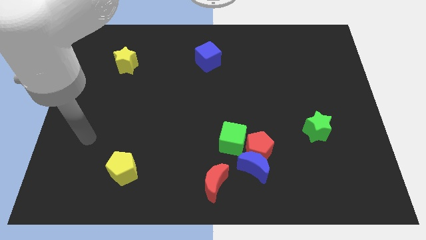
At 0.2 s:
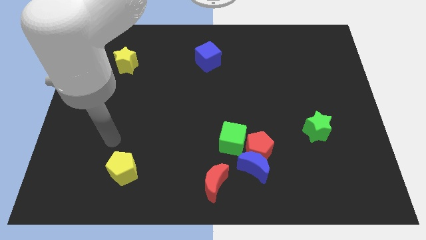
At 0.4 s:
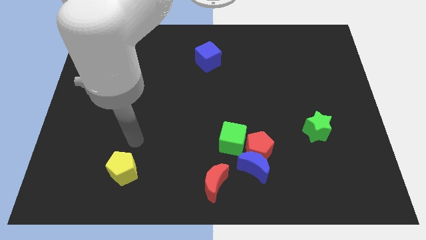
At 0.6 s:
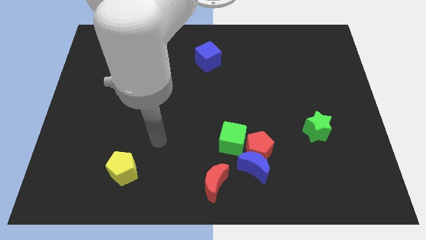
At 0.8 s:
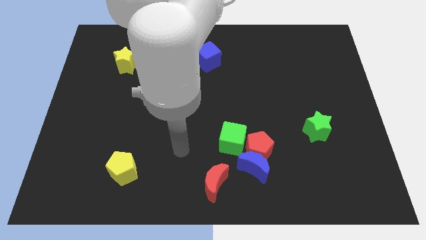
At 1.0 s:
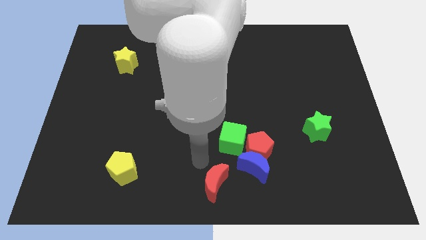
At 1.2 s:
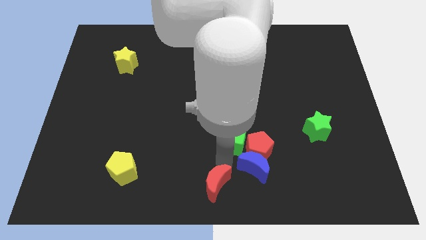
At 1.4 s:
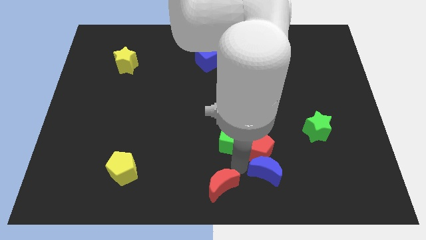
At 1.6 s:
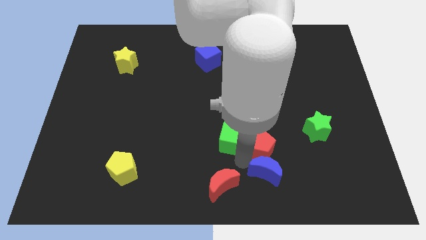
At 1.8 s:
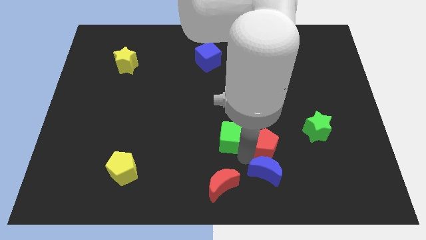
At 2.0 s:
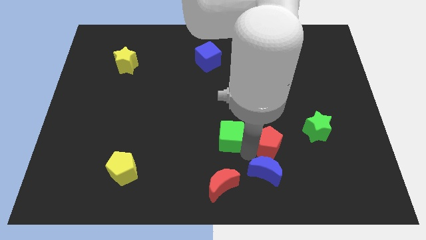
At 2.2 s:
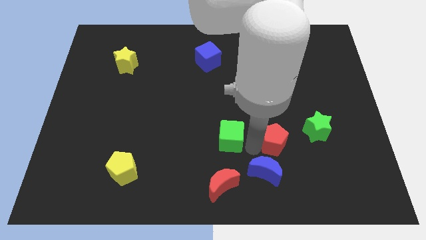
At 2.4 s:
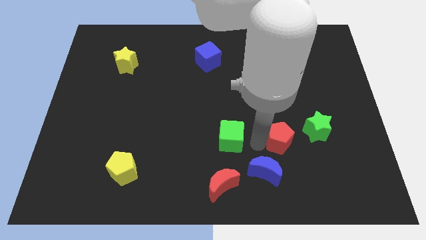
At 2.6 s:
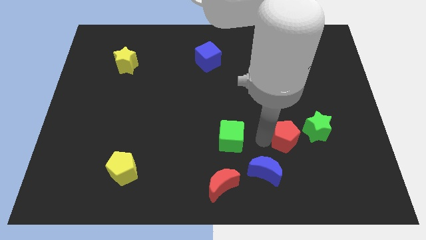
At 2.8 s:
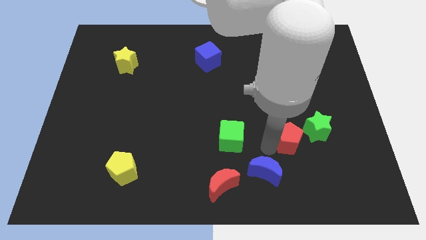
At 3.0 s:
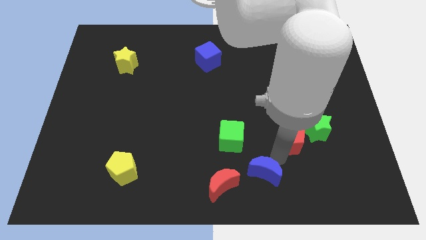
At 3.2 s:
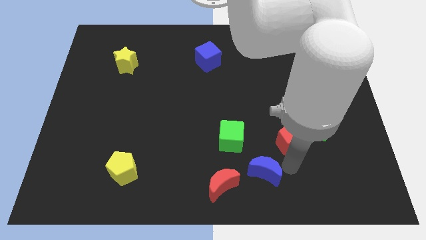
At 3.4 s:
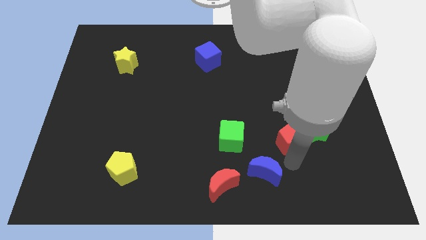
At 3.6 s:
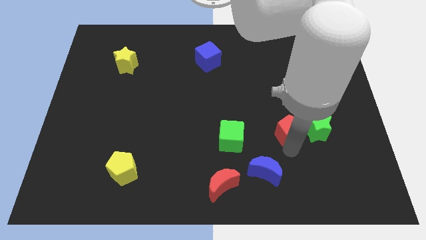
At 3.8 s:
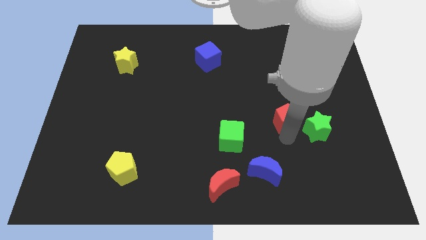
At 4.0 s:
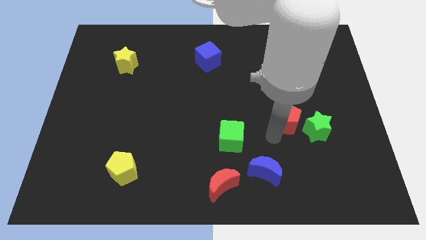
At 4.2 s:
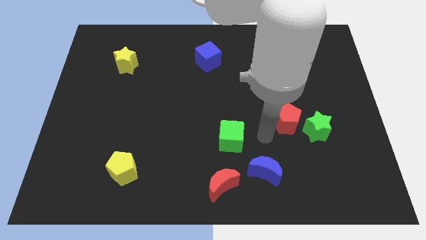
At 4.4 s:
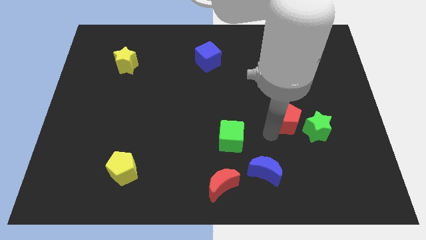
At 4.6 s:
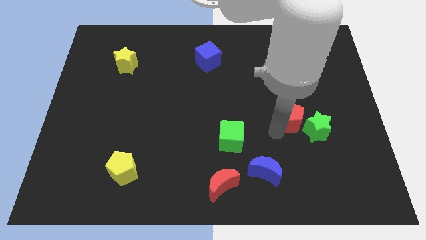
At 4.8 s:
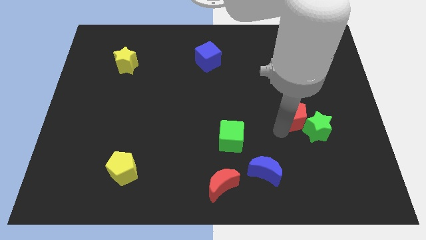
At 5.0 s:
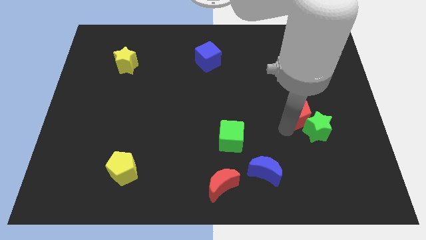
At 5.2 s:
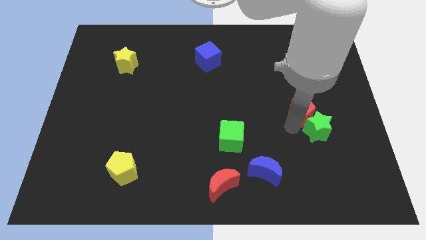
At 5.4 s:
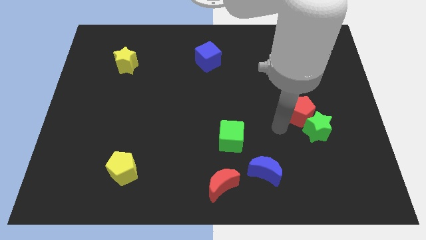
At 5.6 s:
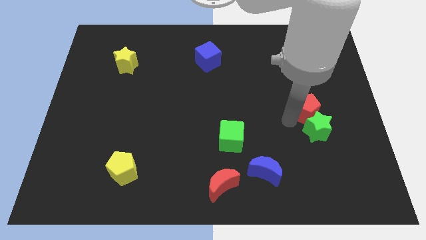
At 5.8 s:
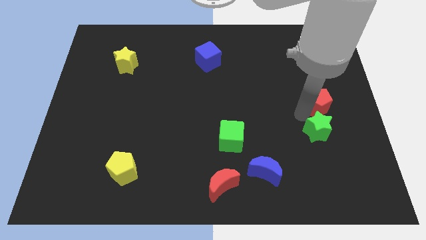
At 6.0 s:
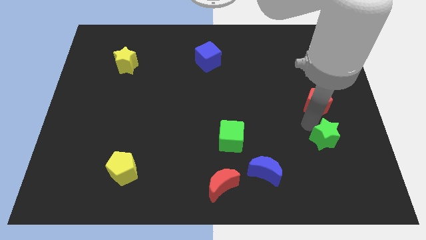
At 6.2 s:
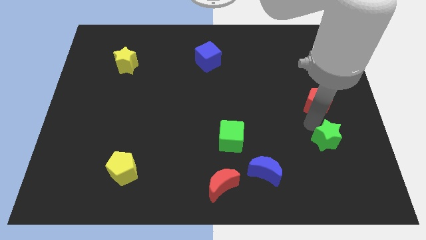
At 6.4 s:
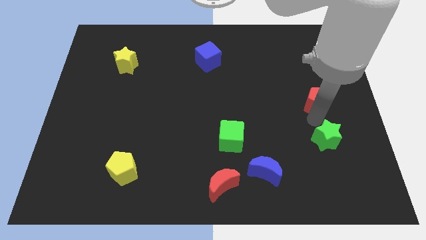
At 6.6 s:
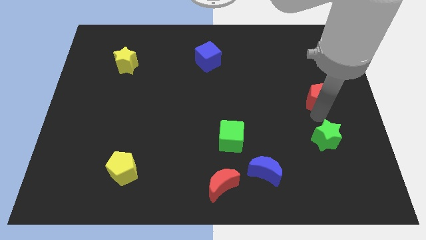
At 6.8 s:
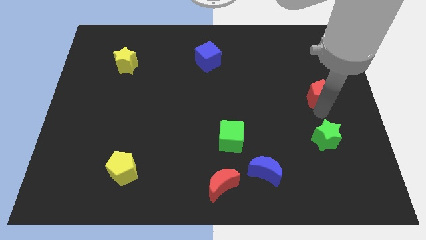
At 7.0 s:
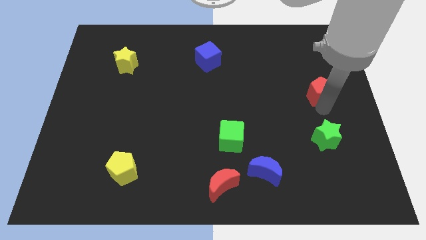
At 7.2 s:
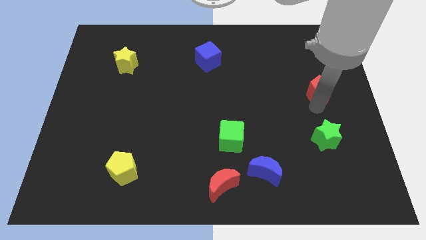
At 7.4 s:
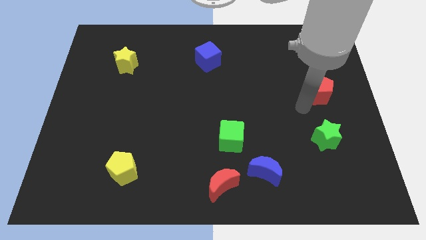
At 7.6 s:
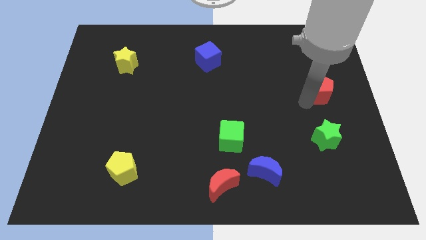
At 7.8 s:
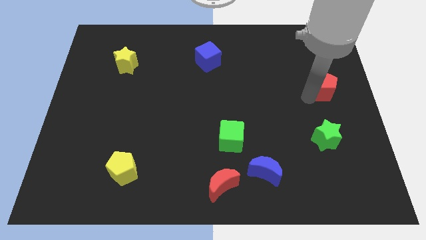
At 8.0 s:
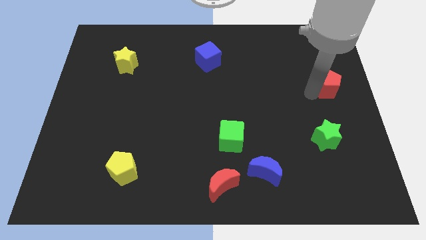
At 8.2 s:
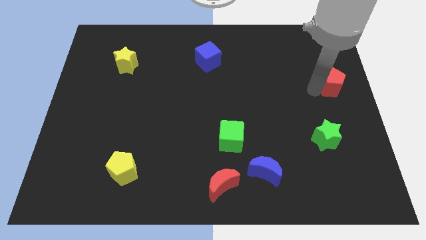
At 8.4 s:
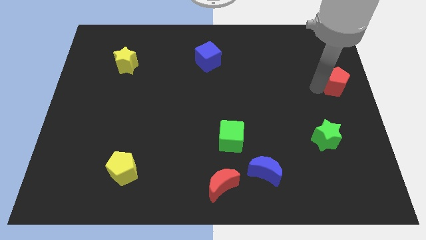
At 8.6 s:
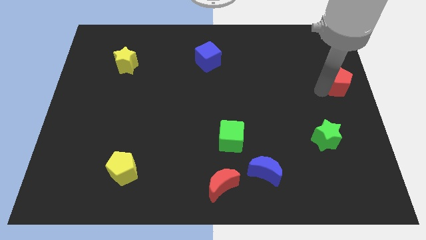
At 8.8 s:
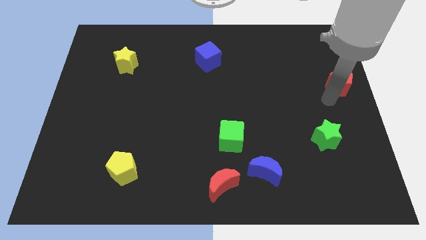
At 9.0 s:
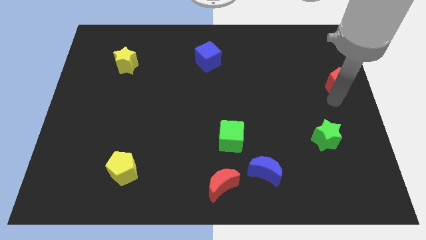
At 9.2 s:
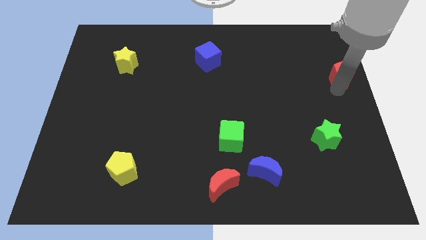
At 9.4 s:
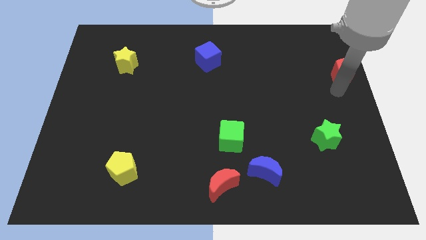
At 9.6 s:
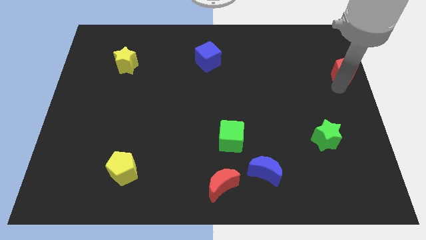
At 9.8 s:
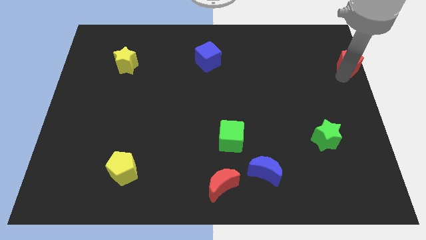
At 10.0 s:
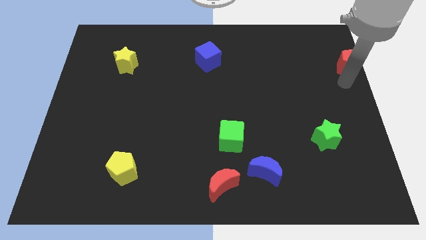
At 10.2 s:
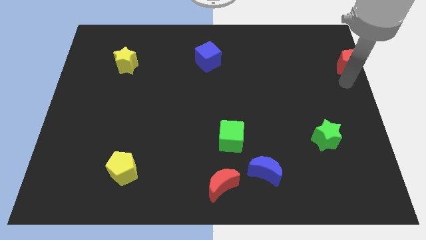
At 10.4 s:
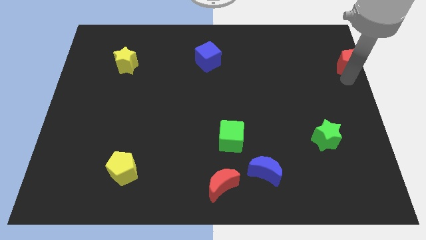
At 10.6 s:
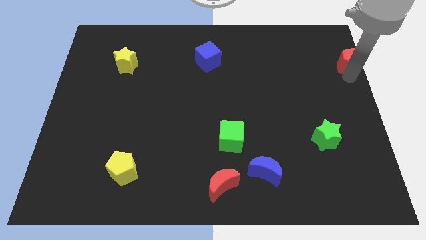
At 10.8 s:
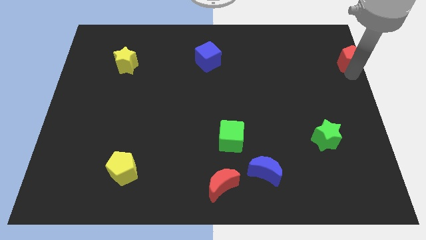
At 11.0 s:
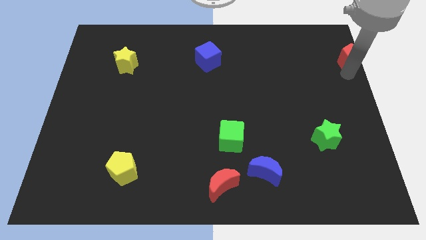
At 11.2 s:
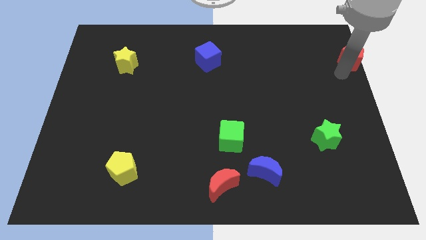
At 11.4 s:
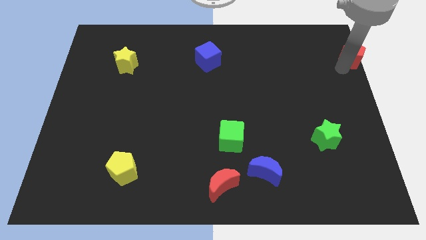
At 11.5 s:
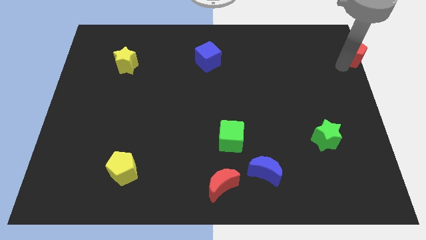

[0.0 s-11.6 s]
put the red pentagon to the top right
